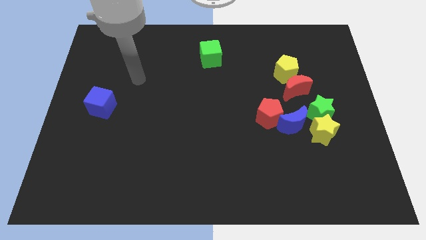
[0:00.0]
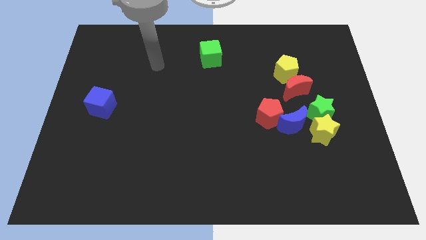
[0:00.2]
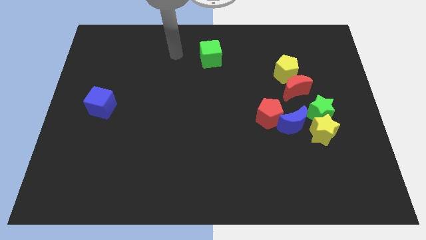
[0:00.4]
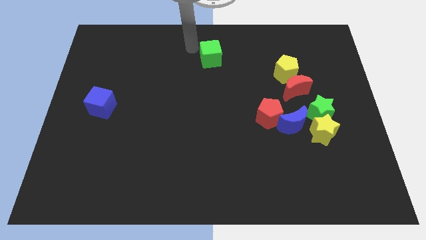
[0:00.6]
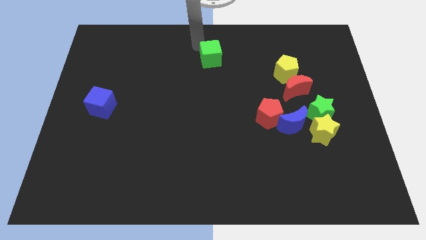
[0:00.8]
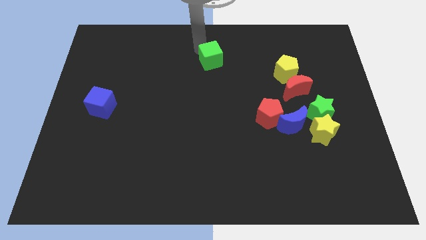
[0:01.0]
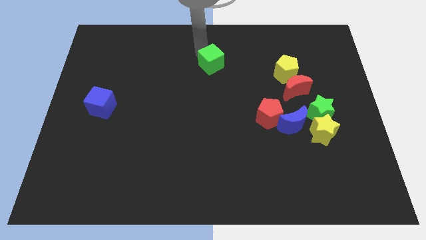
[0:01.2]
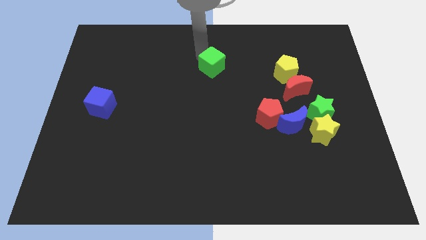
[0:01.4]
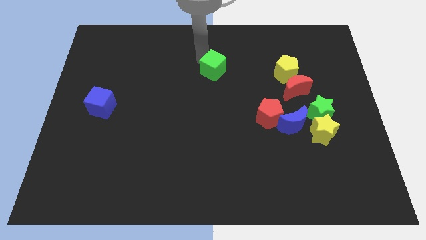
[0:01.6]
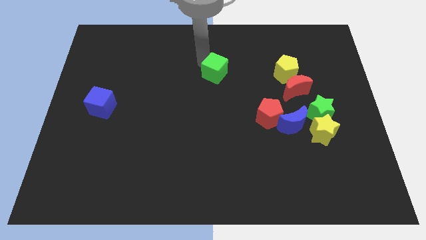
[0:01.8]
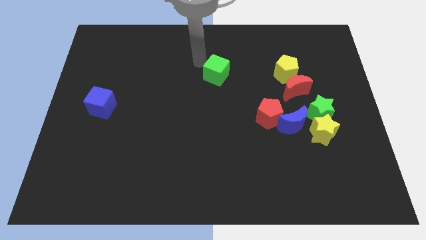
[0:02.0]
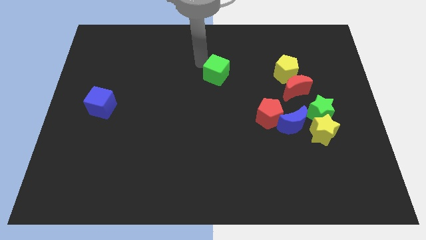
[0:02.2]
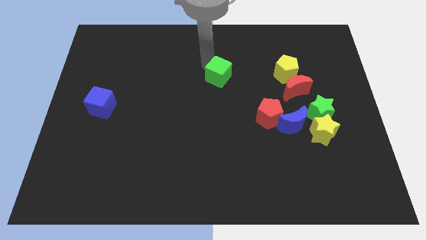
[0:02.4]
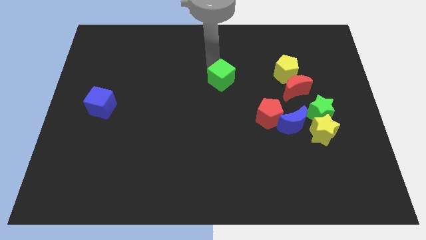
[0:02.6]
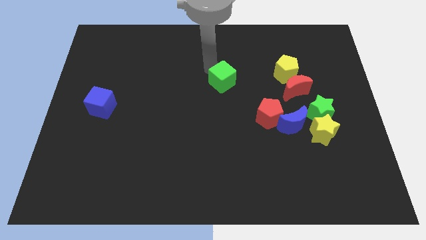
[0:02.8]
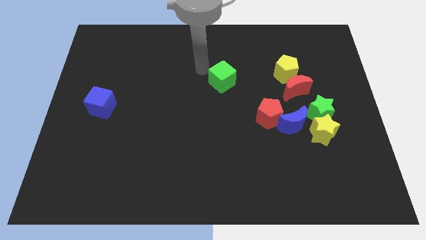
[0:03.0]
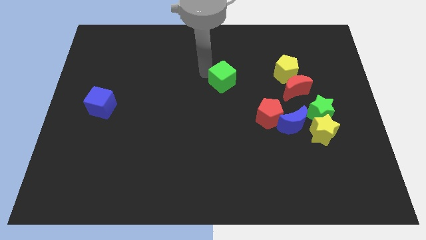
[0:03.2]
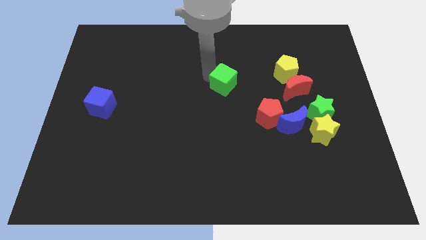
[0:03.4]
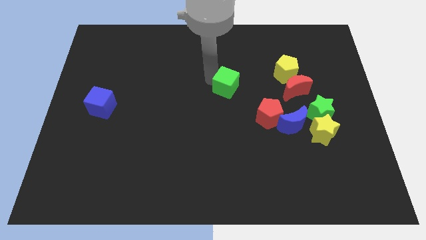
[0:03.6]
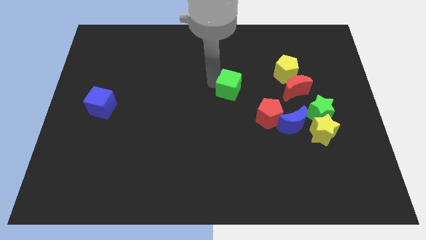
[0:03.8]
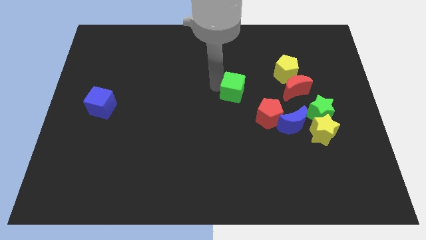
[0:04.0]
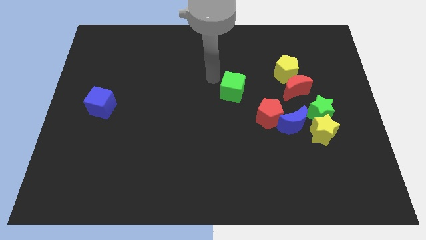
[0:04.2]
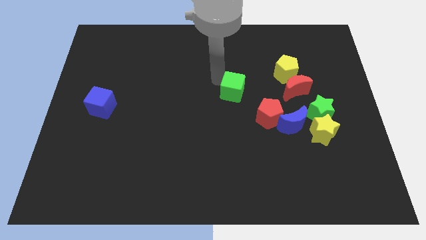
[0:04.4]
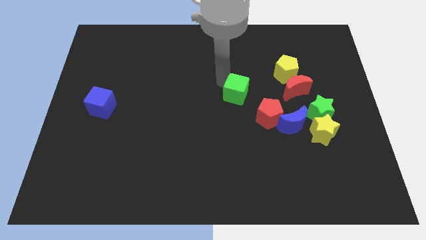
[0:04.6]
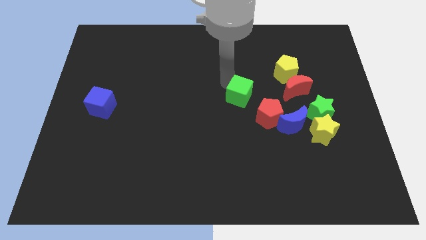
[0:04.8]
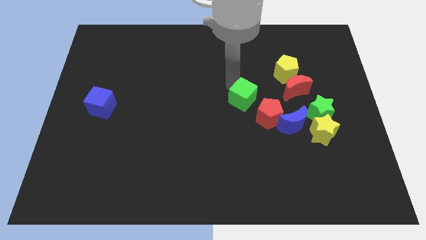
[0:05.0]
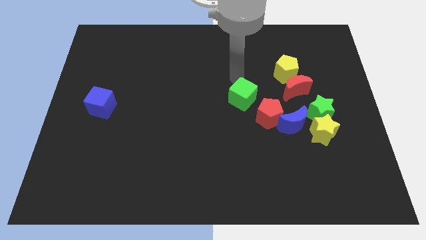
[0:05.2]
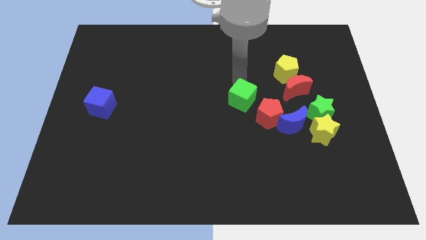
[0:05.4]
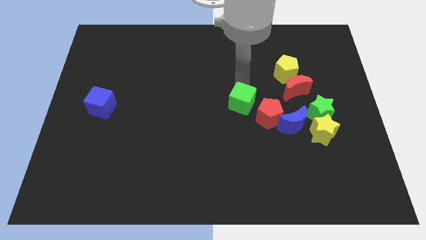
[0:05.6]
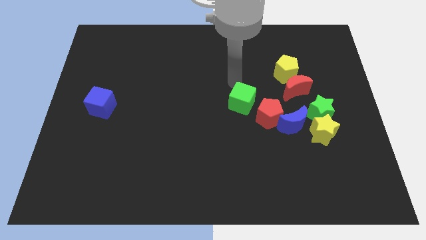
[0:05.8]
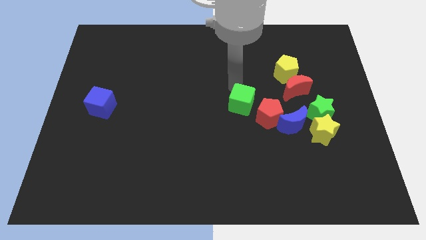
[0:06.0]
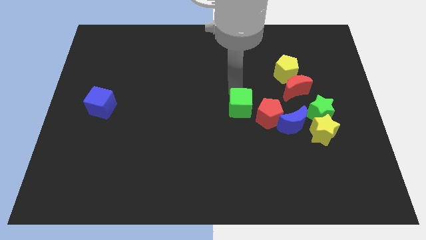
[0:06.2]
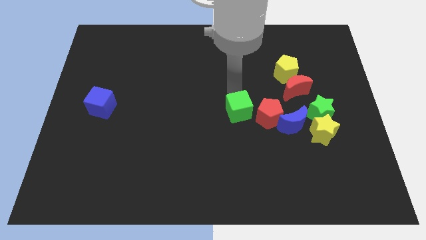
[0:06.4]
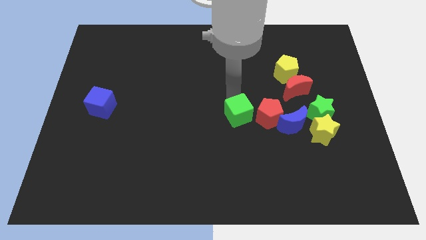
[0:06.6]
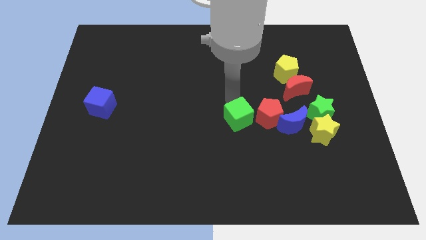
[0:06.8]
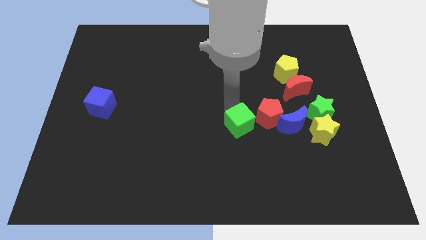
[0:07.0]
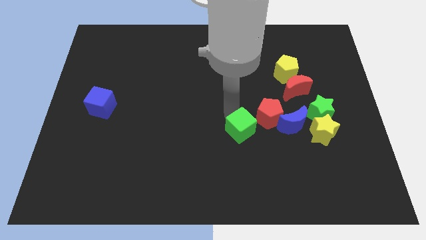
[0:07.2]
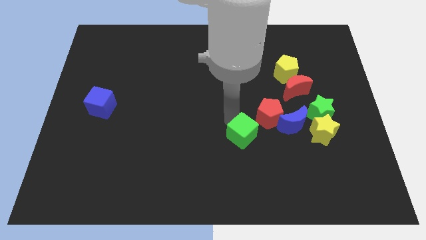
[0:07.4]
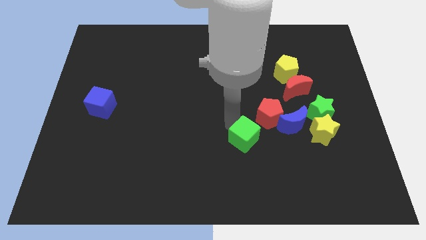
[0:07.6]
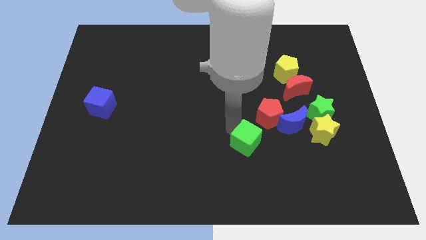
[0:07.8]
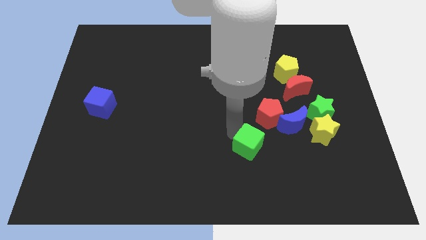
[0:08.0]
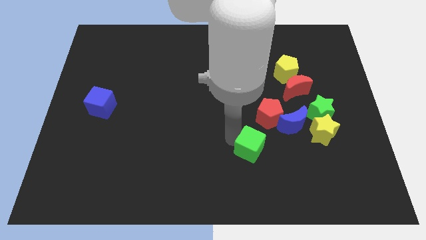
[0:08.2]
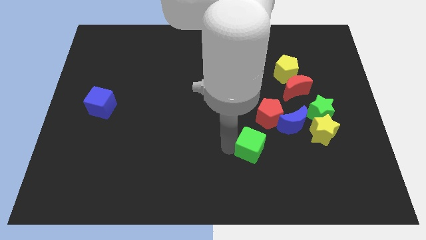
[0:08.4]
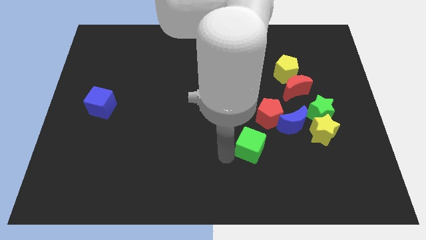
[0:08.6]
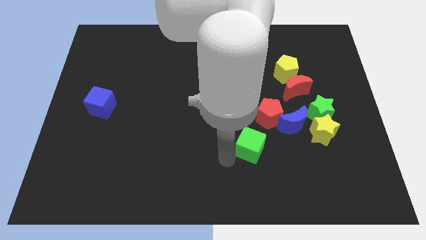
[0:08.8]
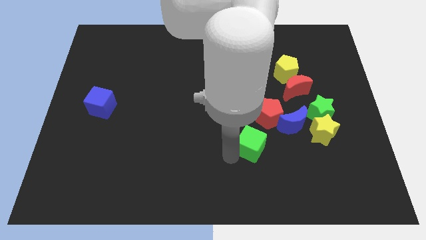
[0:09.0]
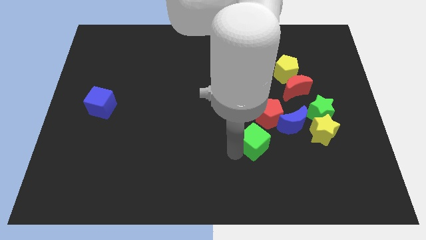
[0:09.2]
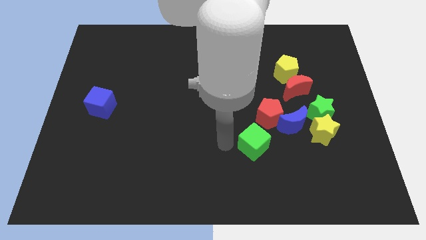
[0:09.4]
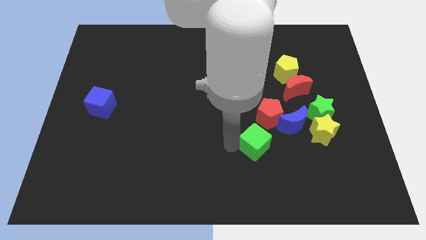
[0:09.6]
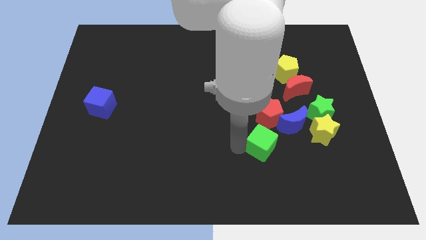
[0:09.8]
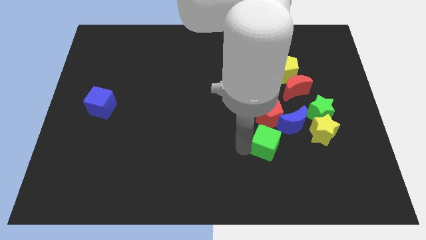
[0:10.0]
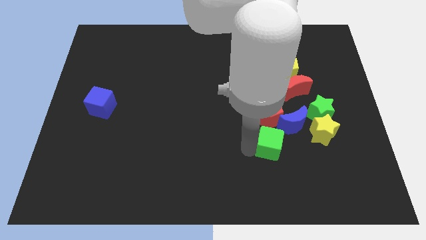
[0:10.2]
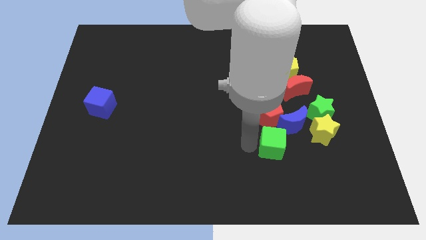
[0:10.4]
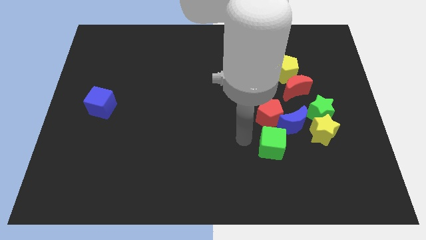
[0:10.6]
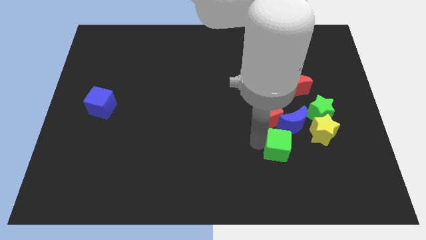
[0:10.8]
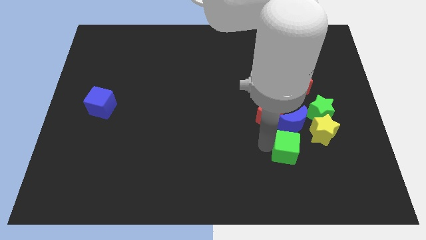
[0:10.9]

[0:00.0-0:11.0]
slide the green cube to the bottom left side of the yellow star

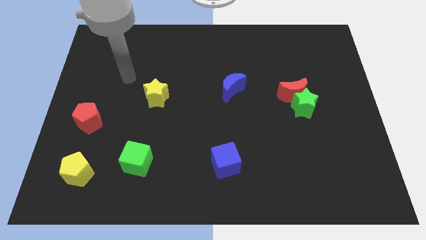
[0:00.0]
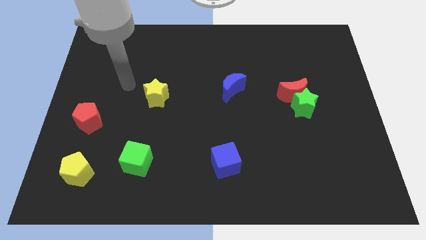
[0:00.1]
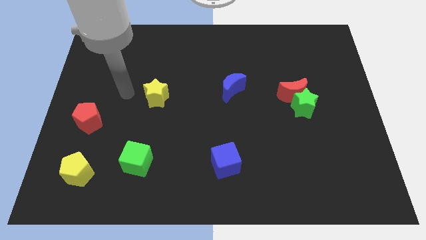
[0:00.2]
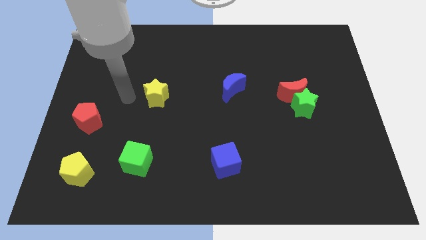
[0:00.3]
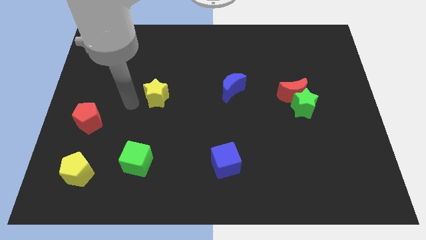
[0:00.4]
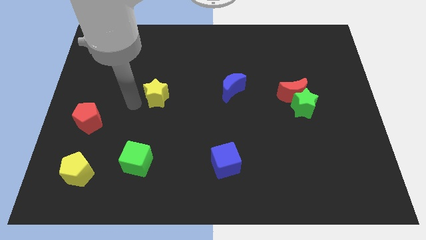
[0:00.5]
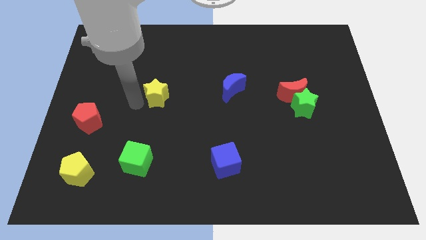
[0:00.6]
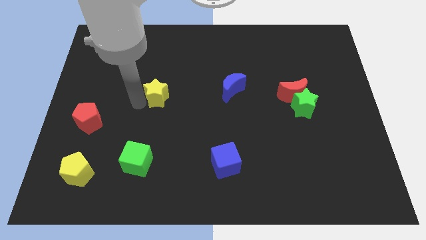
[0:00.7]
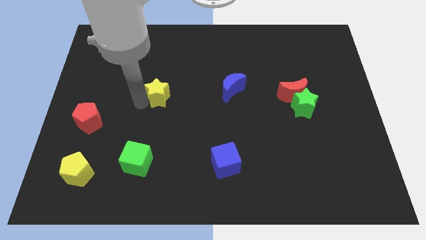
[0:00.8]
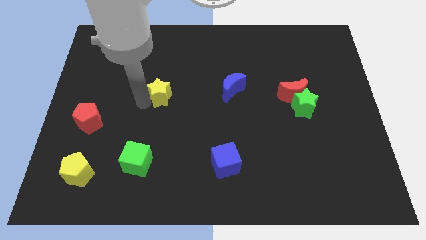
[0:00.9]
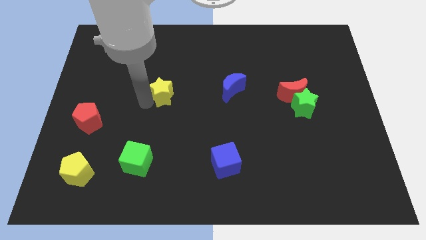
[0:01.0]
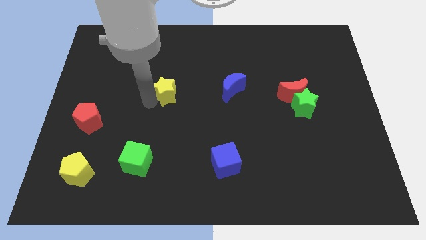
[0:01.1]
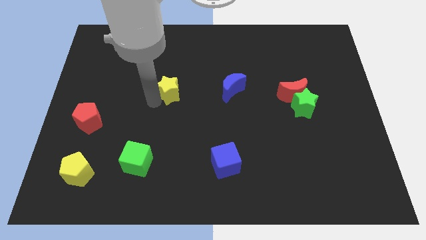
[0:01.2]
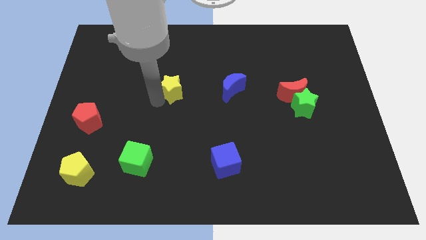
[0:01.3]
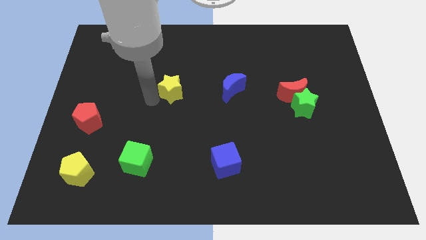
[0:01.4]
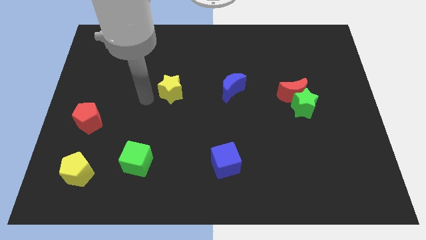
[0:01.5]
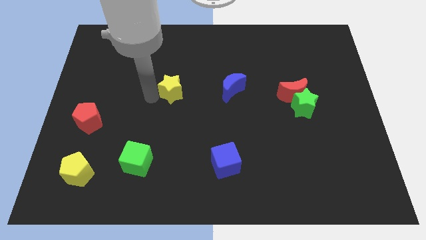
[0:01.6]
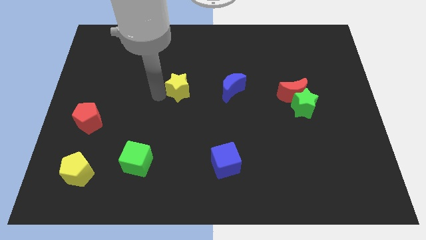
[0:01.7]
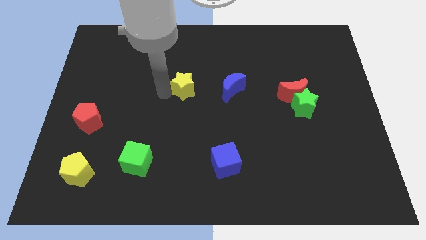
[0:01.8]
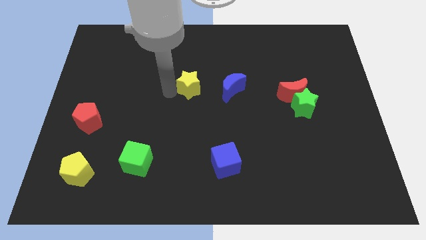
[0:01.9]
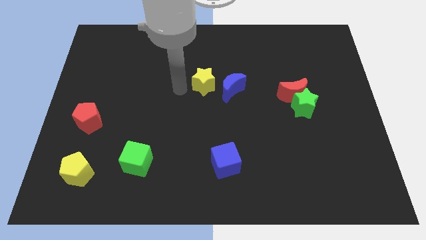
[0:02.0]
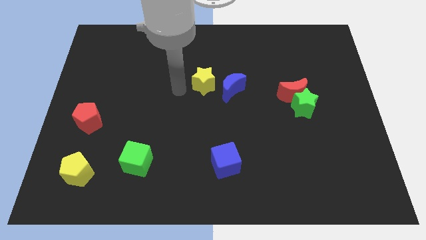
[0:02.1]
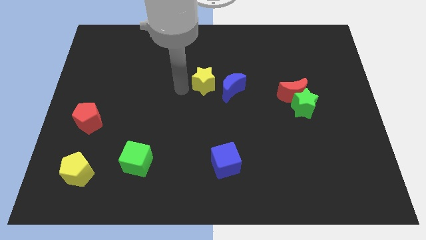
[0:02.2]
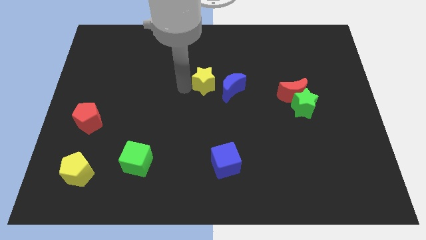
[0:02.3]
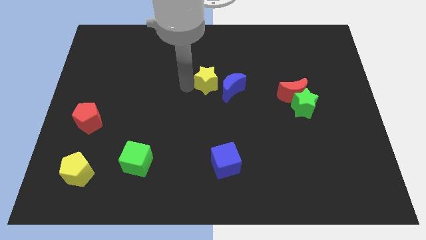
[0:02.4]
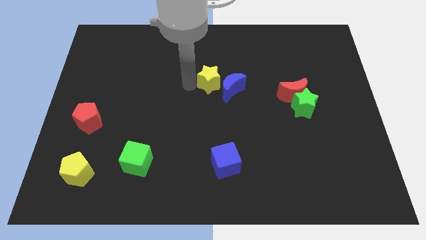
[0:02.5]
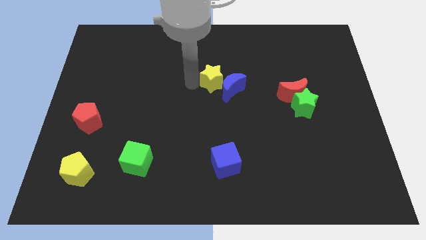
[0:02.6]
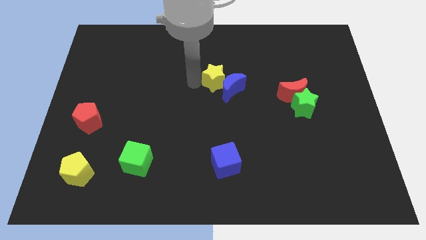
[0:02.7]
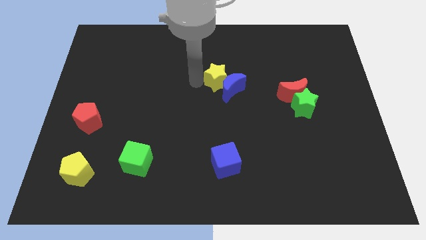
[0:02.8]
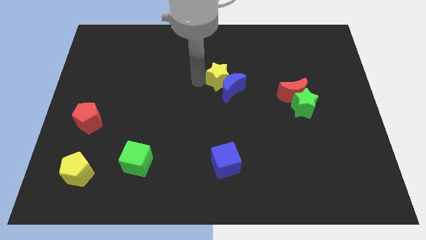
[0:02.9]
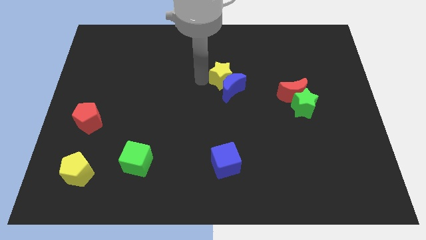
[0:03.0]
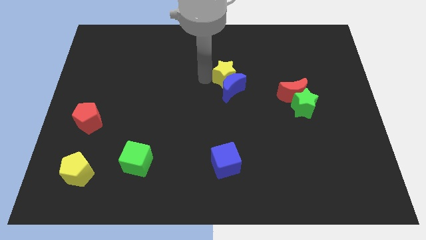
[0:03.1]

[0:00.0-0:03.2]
push the yellow star to the top right of the blue moon
